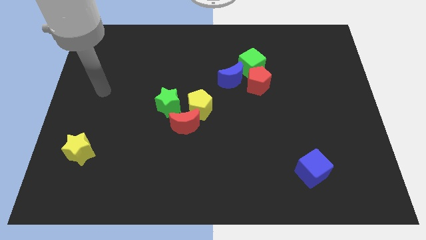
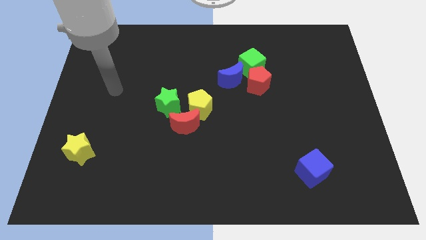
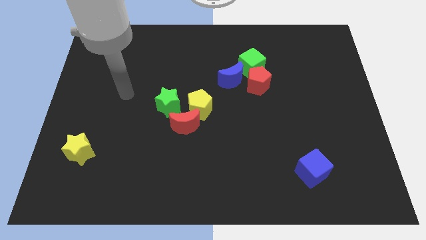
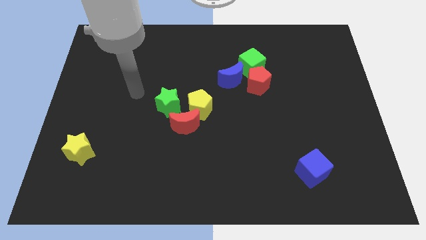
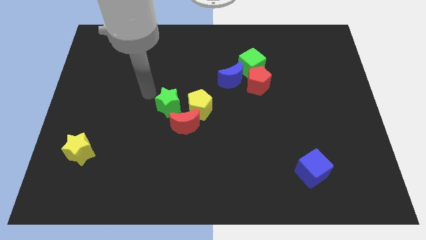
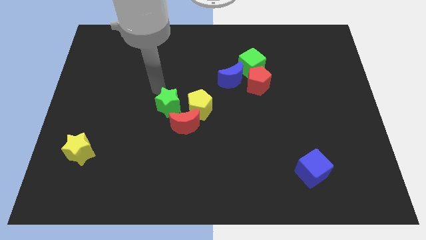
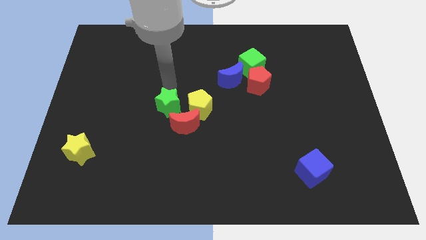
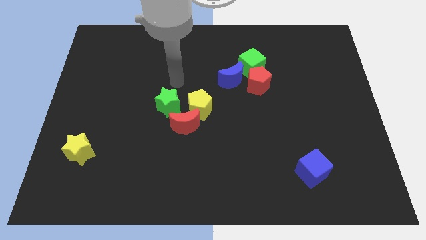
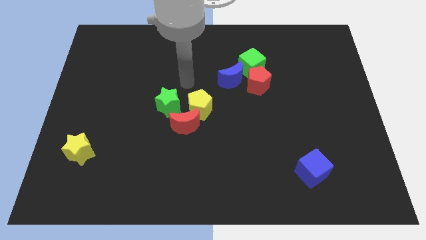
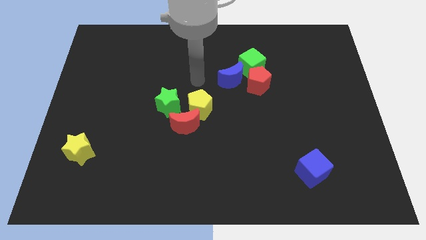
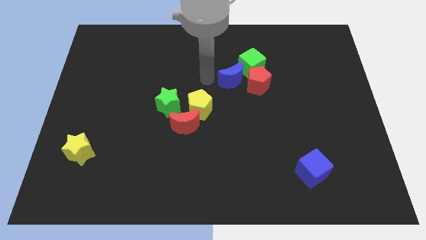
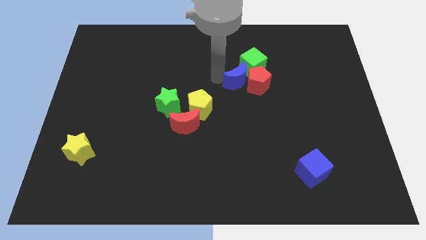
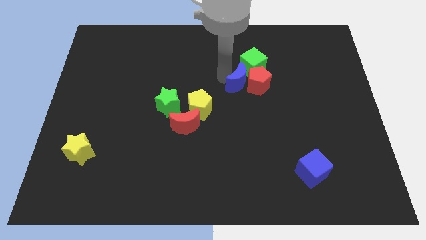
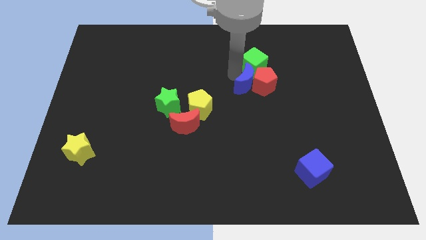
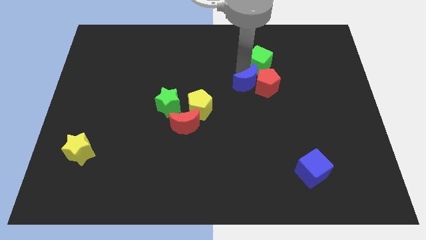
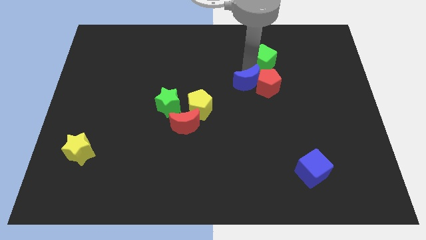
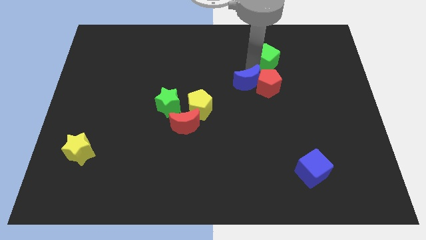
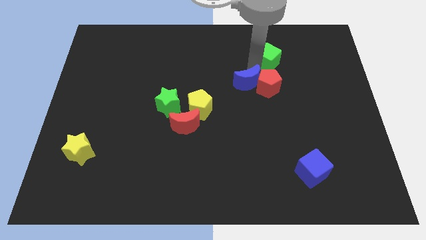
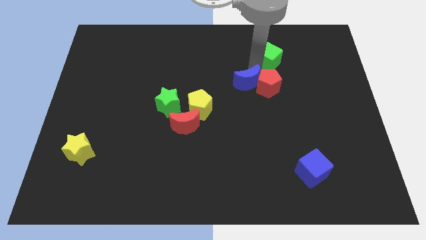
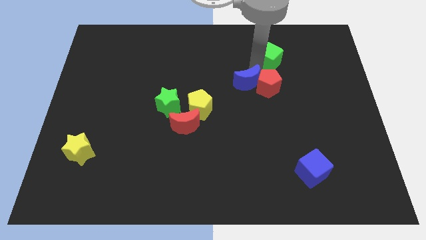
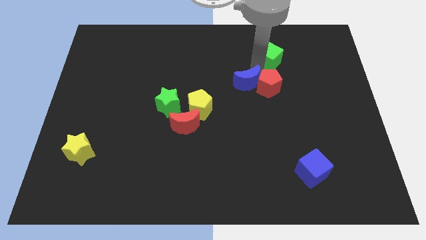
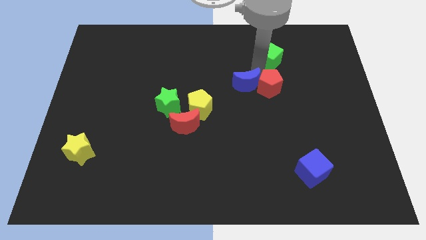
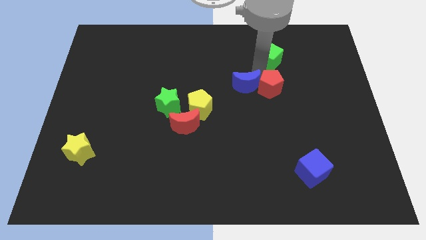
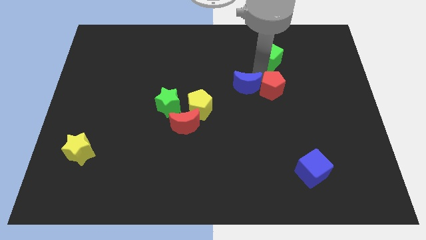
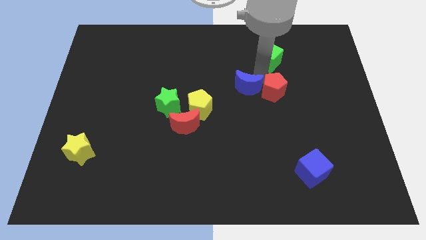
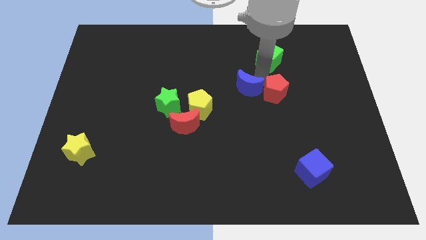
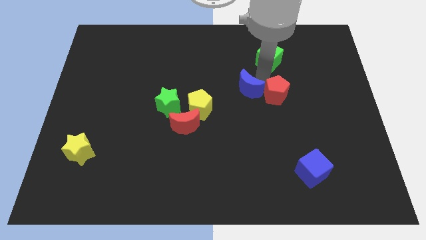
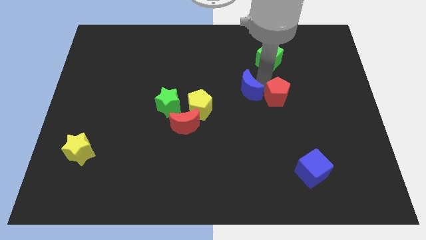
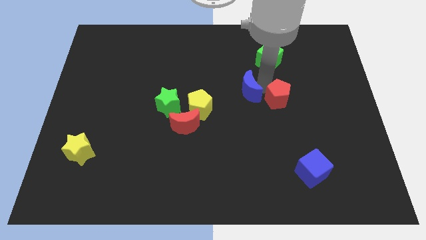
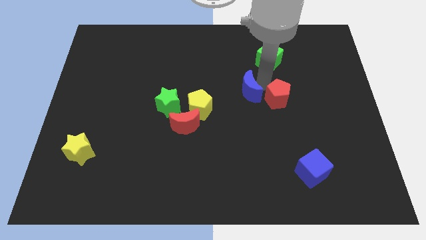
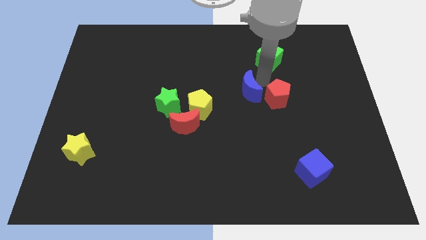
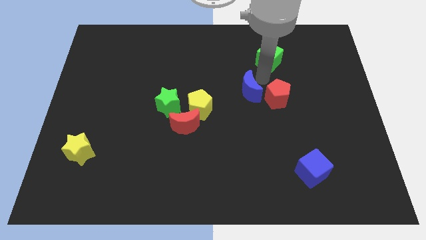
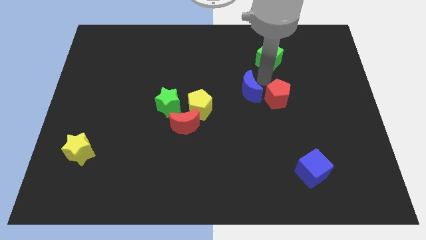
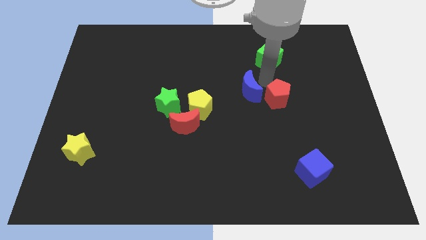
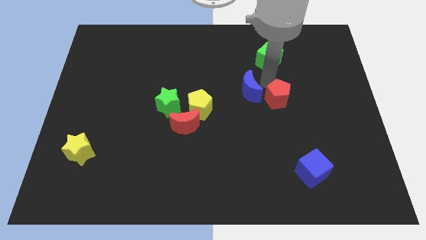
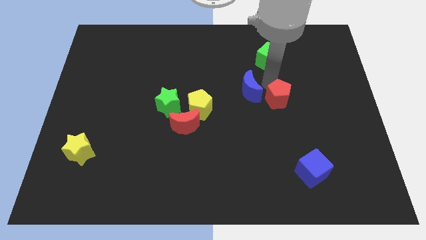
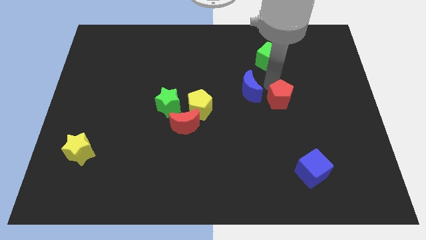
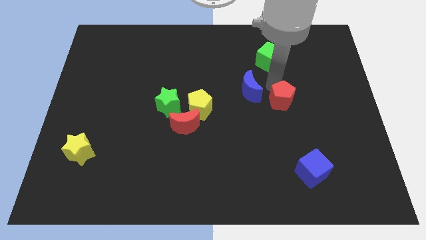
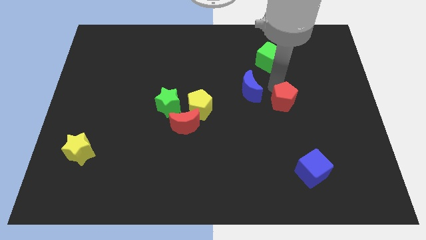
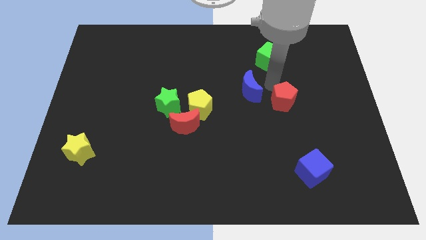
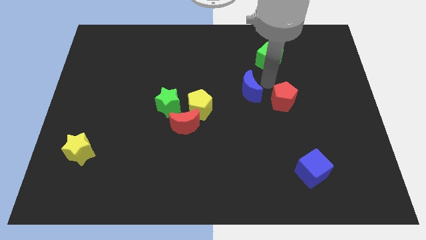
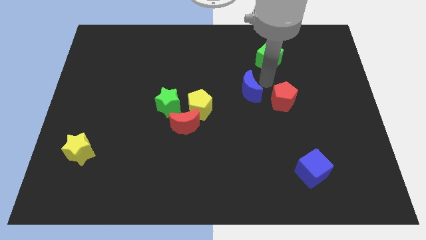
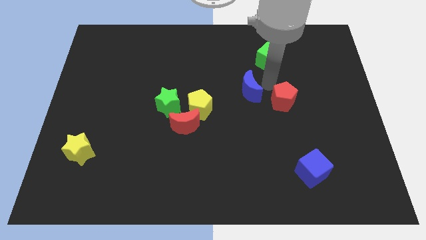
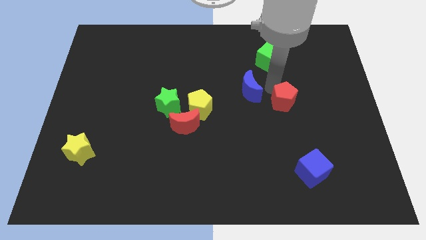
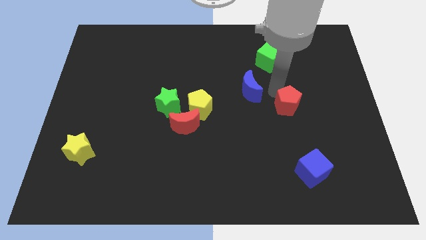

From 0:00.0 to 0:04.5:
pull the red pentagon apart from the green cube and blue moon

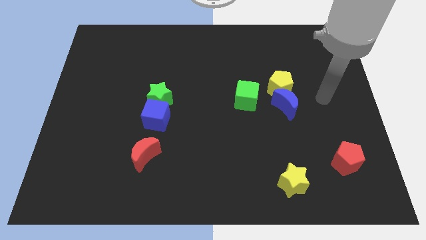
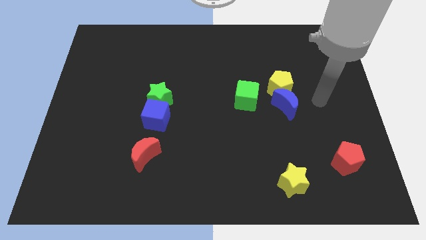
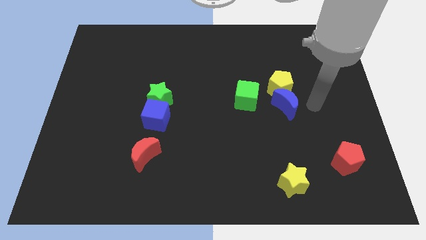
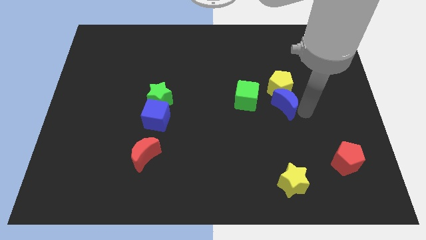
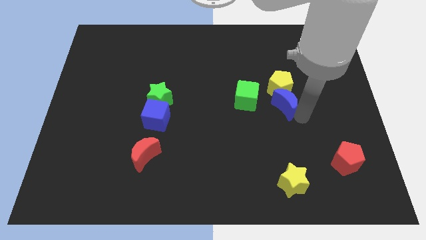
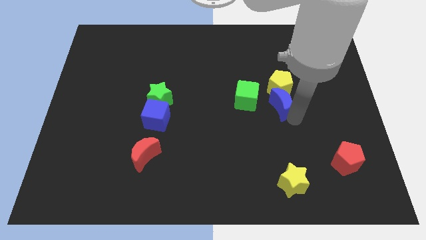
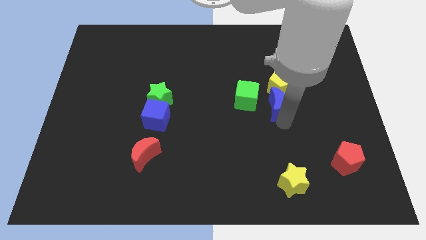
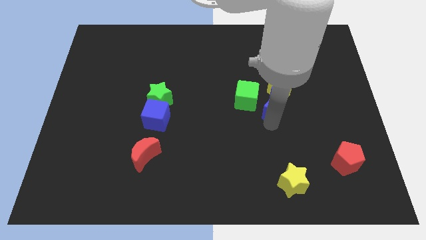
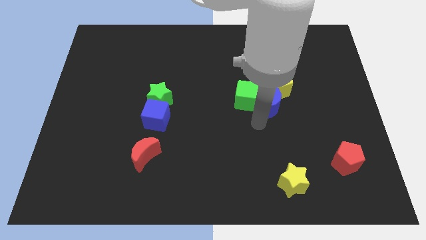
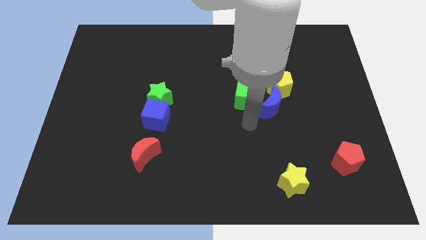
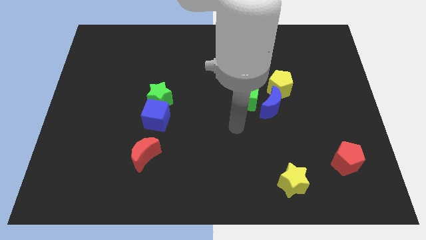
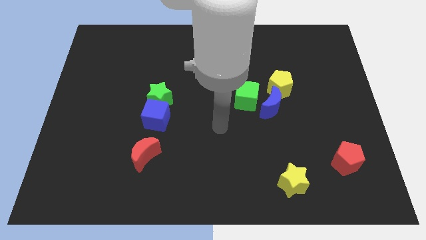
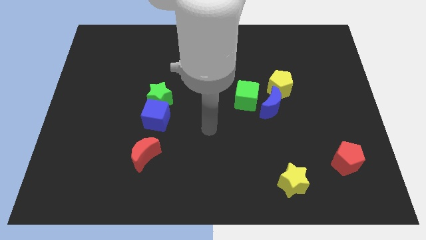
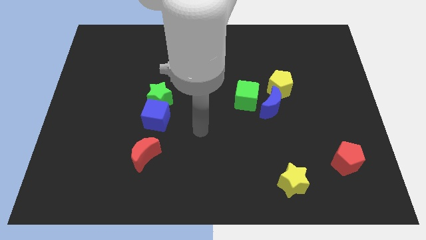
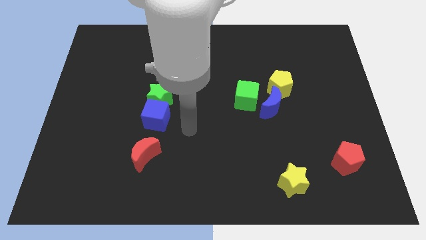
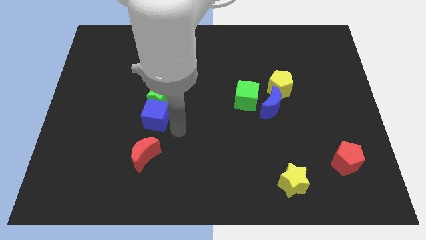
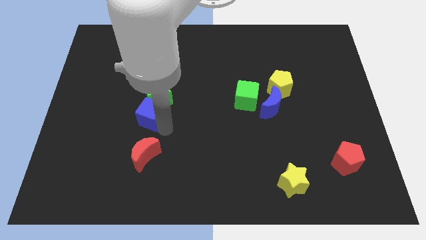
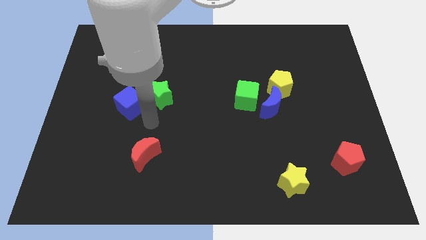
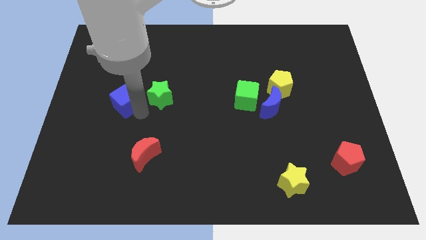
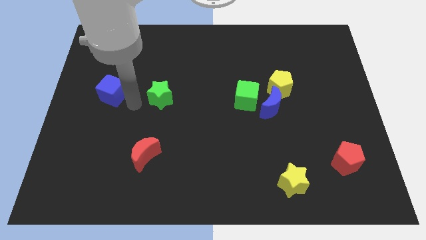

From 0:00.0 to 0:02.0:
separate the green star from the blue cube

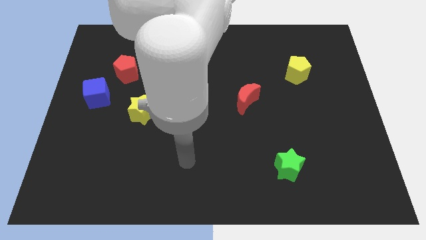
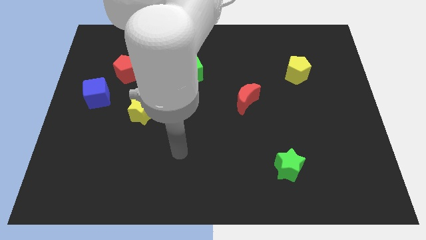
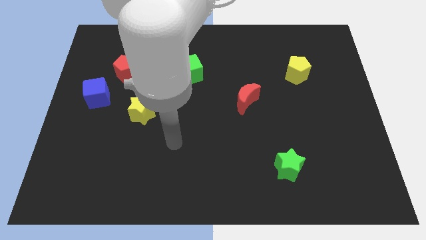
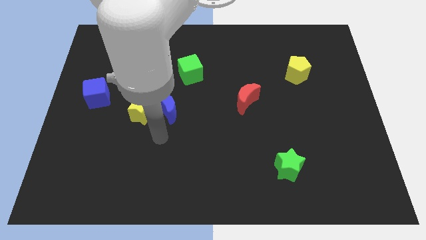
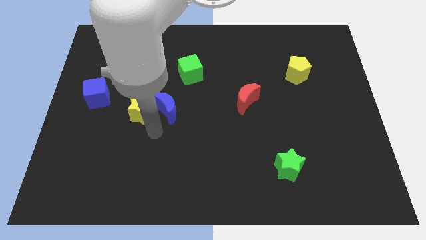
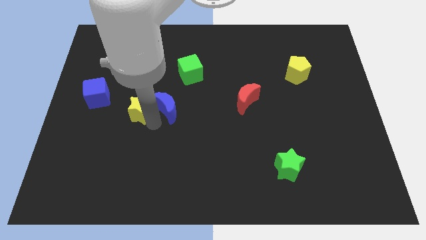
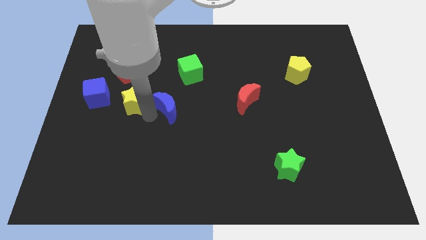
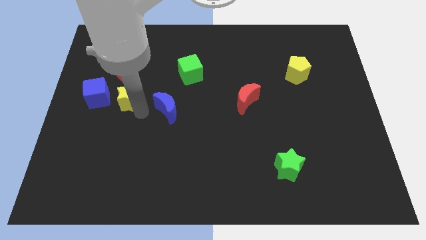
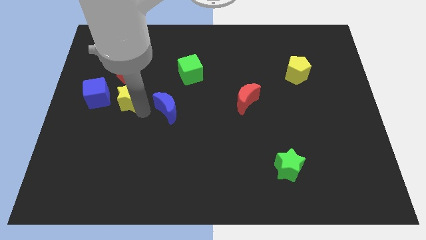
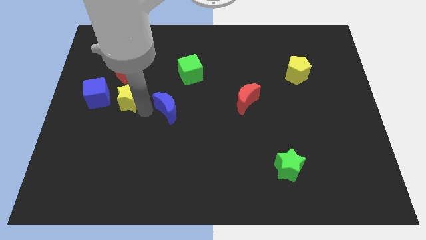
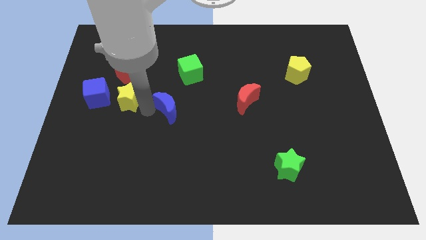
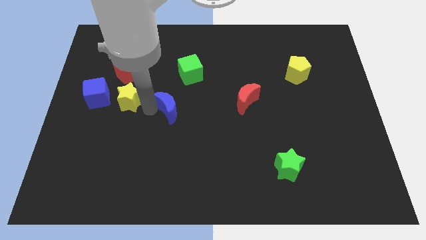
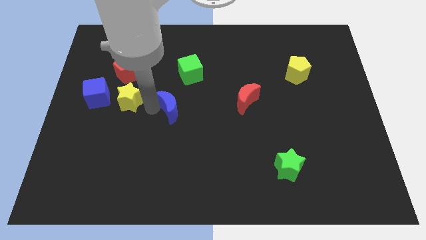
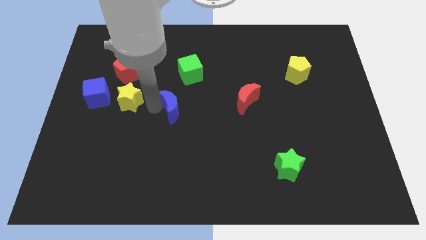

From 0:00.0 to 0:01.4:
pull the blue moon apart from the yellow star

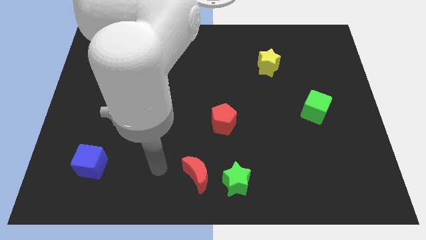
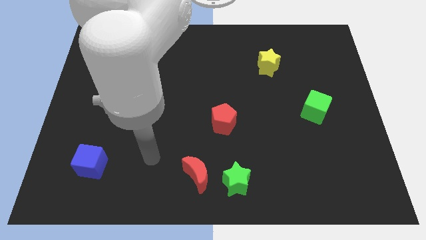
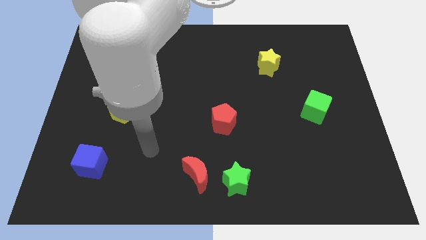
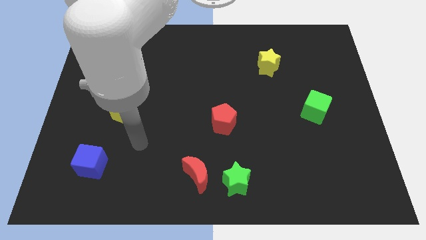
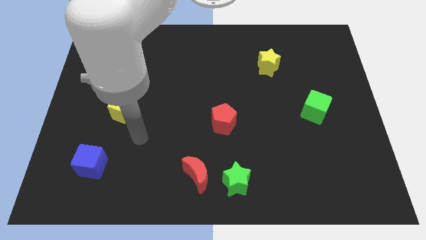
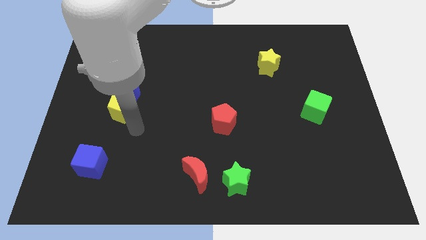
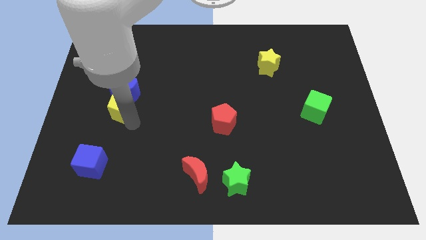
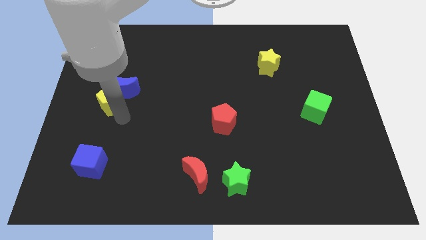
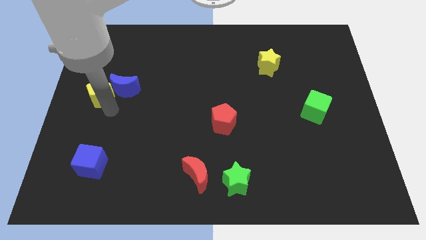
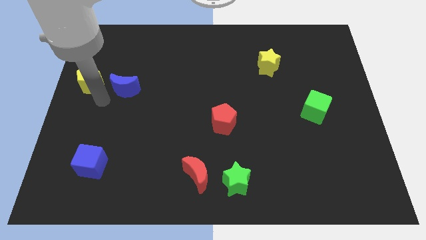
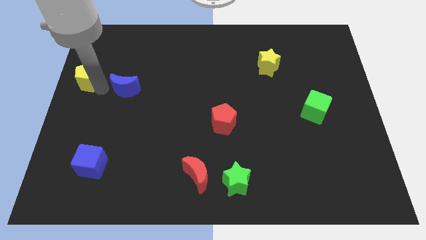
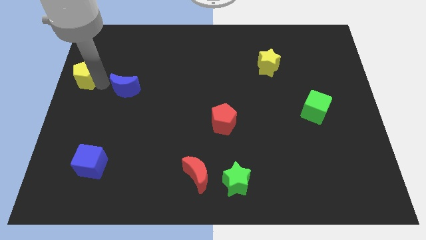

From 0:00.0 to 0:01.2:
move the blue moon away from the yellow pentagon

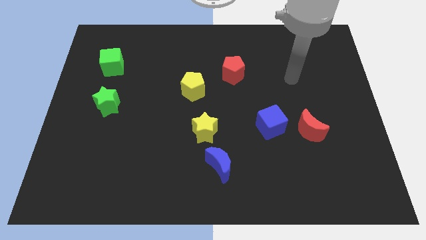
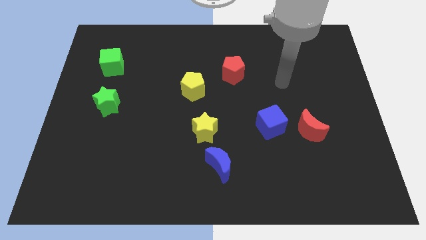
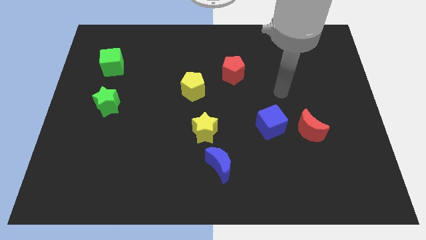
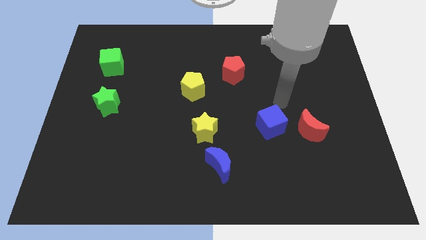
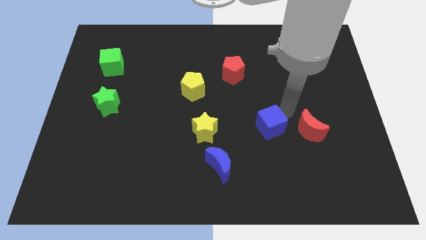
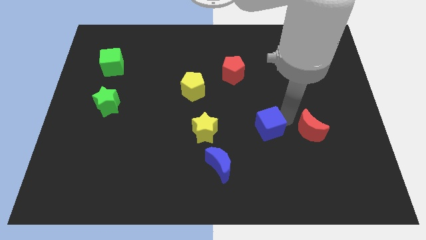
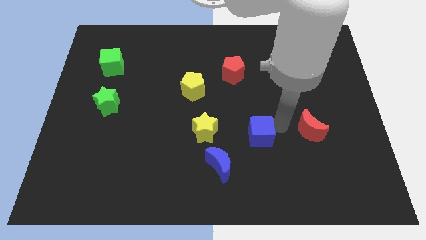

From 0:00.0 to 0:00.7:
move the red moon away from the blue cube
